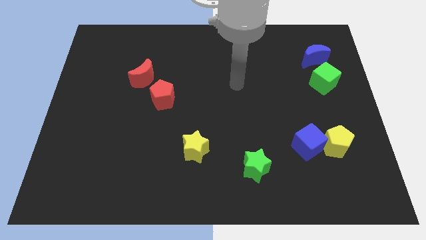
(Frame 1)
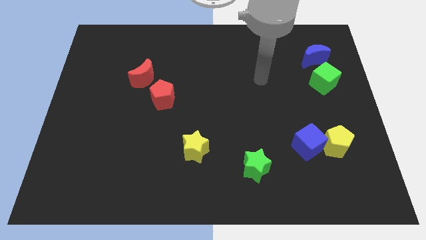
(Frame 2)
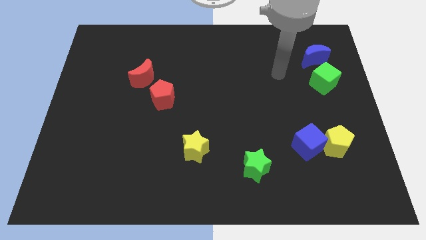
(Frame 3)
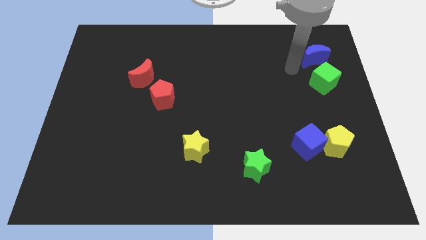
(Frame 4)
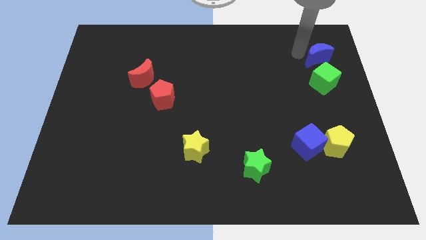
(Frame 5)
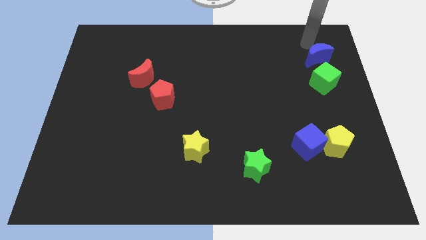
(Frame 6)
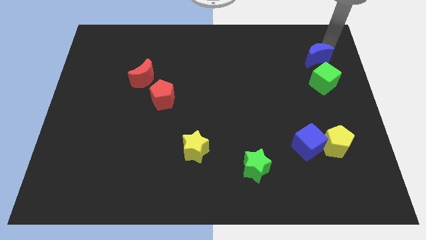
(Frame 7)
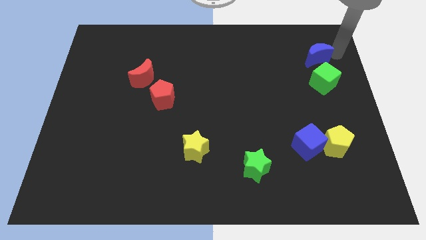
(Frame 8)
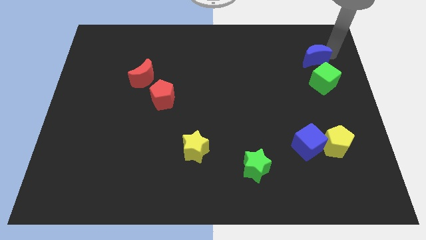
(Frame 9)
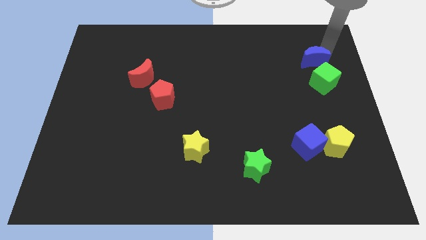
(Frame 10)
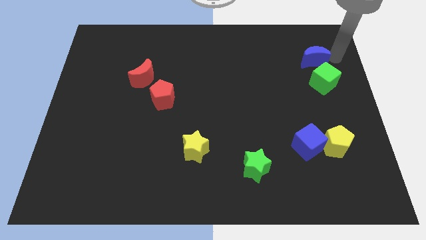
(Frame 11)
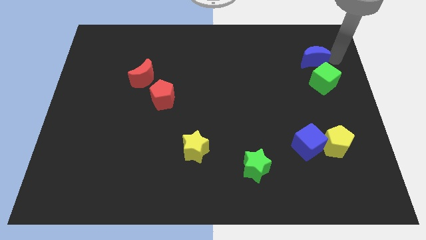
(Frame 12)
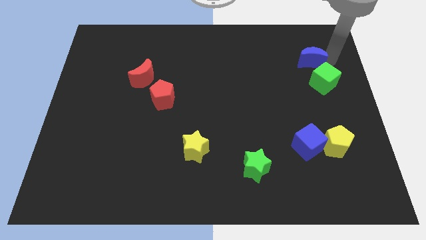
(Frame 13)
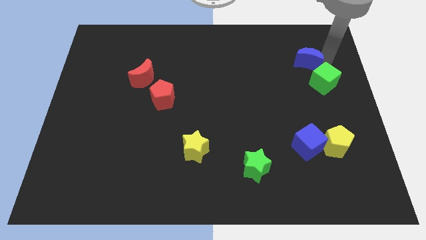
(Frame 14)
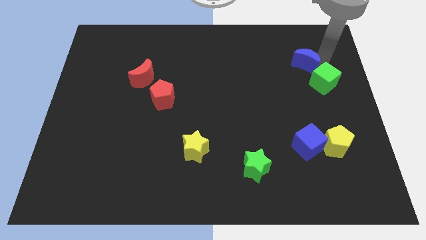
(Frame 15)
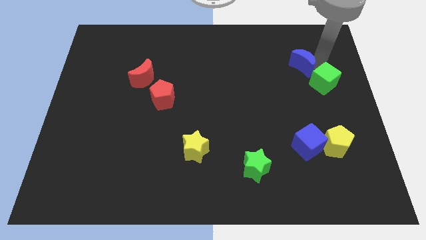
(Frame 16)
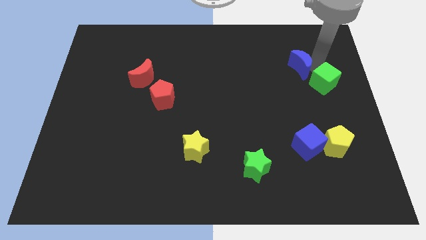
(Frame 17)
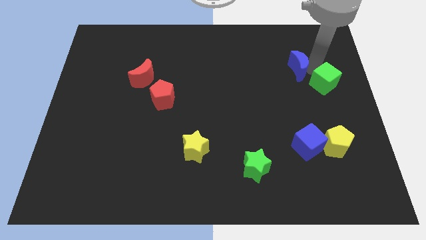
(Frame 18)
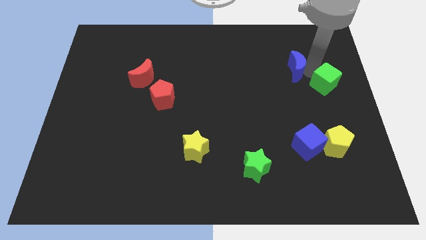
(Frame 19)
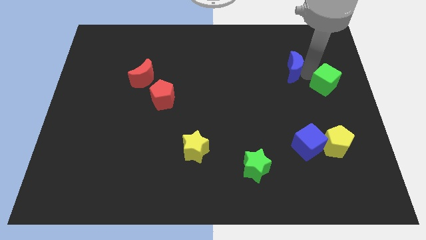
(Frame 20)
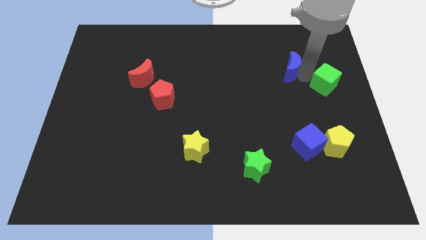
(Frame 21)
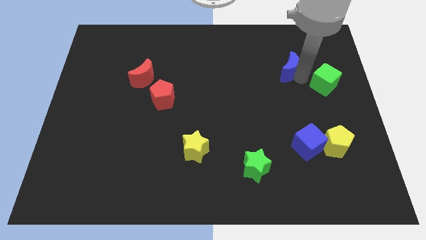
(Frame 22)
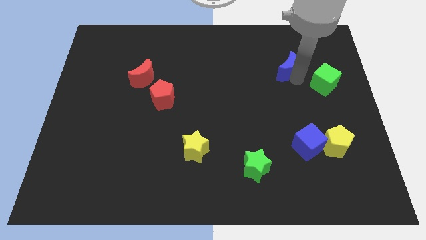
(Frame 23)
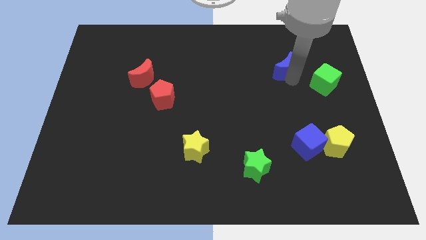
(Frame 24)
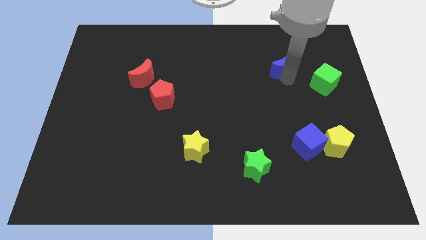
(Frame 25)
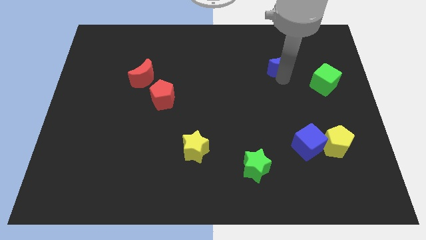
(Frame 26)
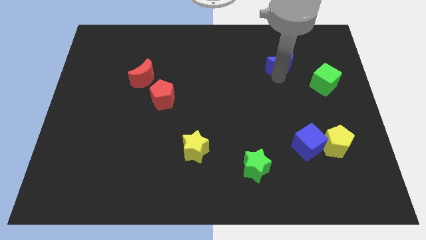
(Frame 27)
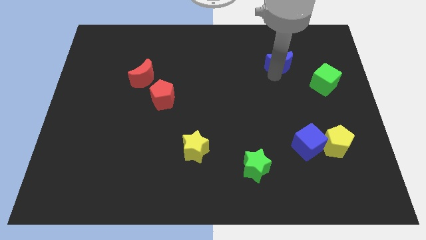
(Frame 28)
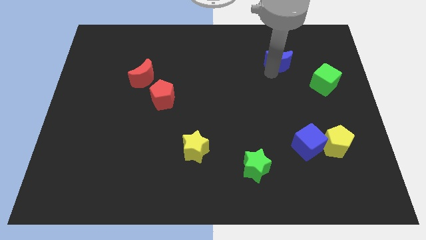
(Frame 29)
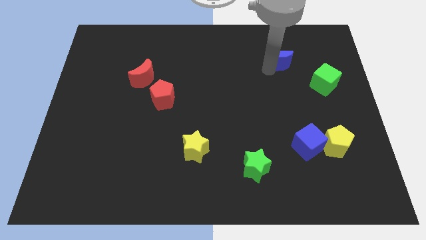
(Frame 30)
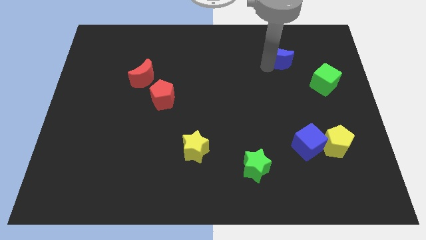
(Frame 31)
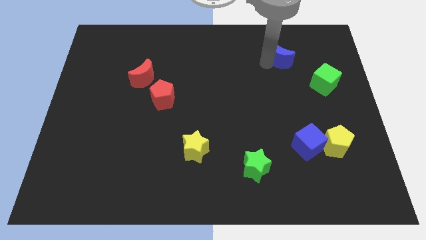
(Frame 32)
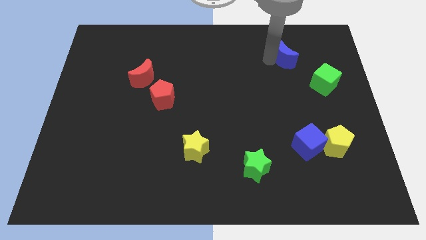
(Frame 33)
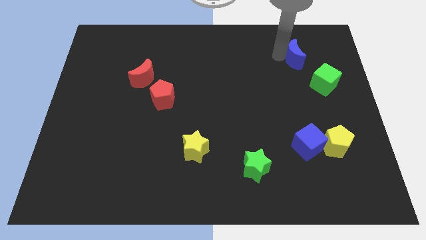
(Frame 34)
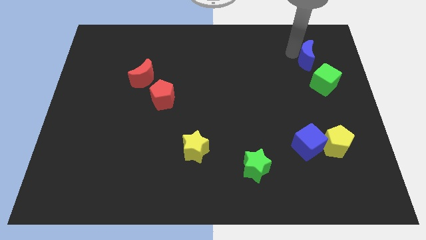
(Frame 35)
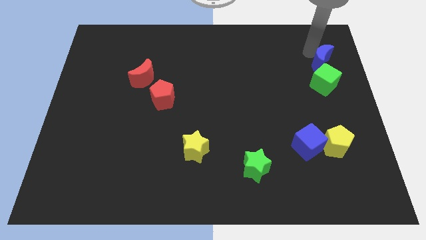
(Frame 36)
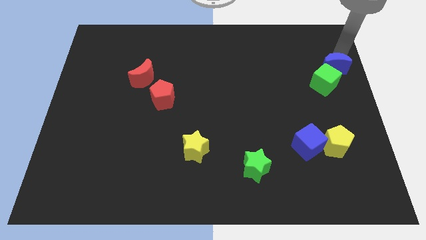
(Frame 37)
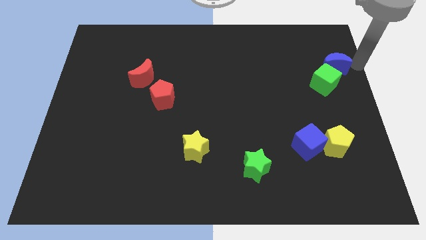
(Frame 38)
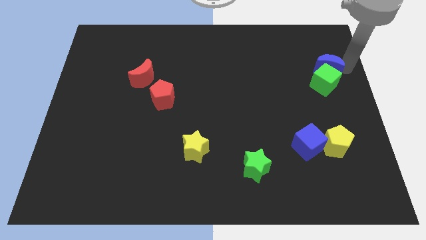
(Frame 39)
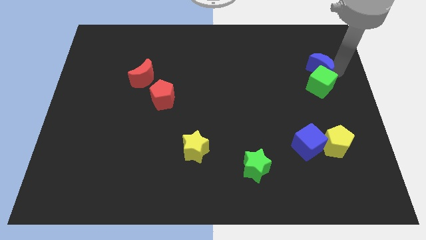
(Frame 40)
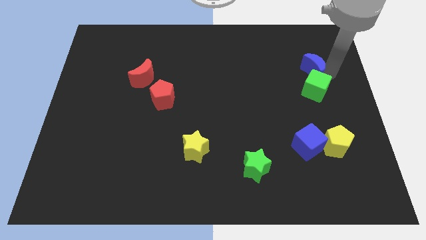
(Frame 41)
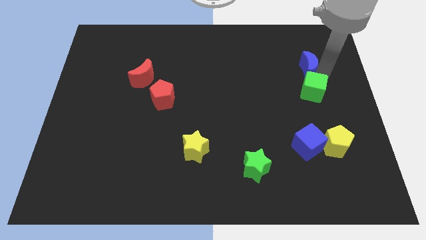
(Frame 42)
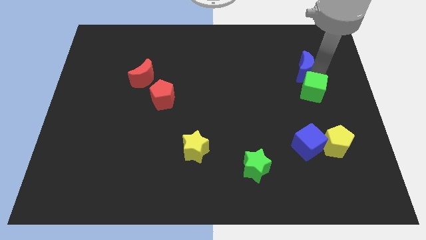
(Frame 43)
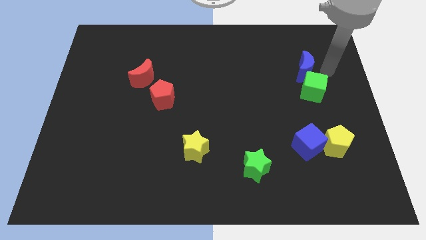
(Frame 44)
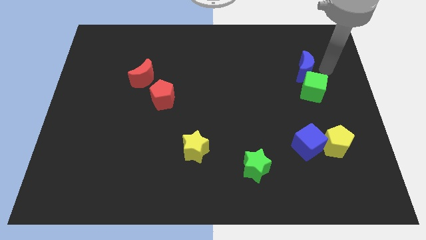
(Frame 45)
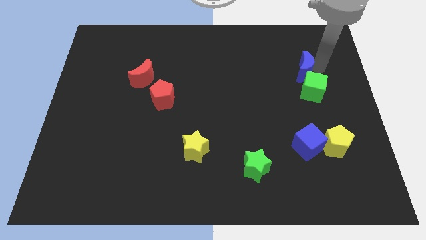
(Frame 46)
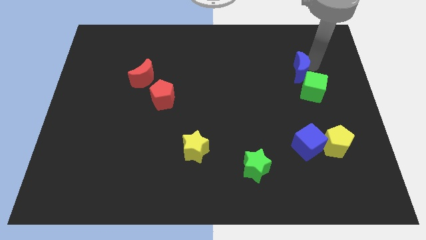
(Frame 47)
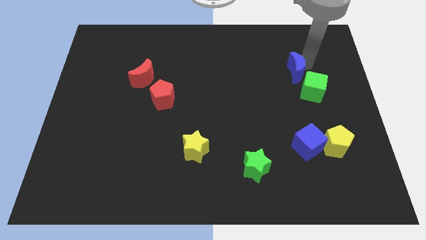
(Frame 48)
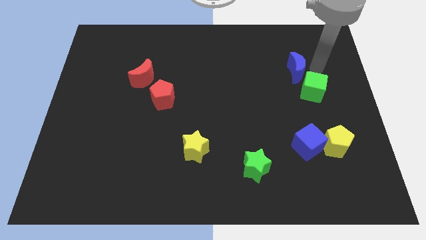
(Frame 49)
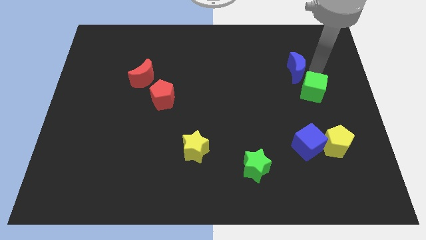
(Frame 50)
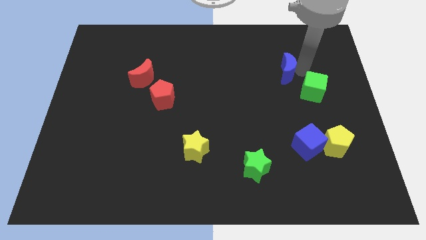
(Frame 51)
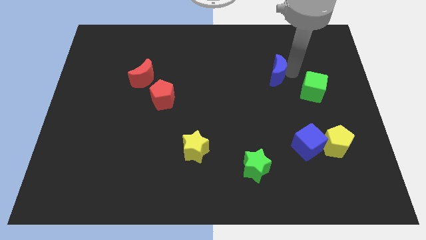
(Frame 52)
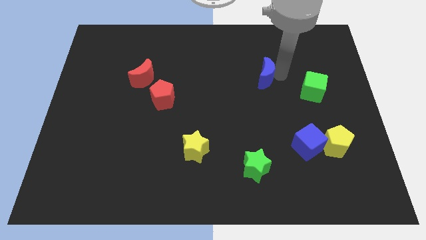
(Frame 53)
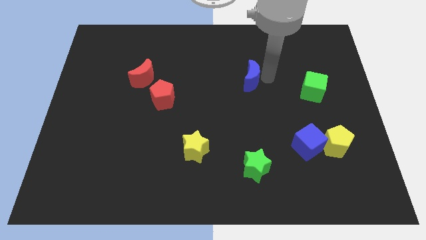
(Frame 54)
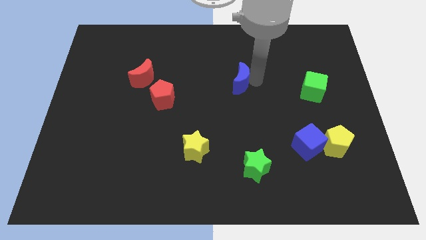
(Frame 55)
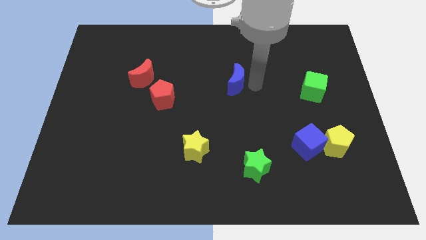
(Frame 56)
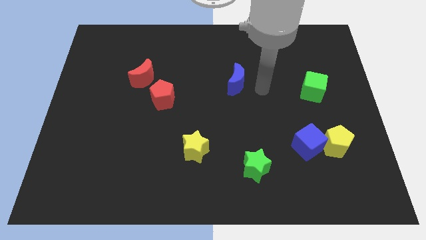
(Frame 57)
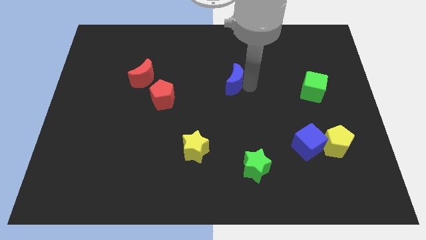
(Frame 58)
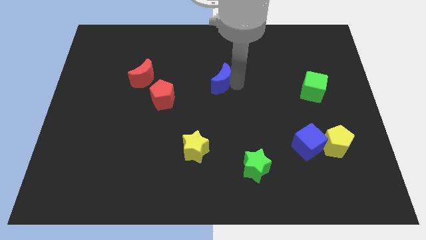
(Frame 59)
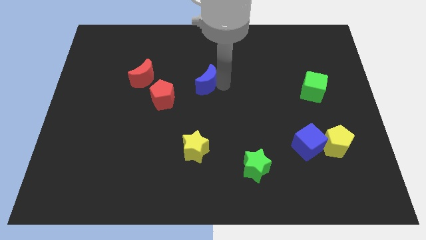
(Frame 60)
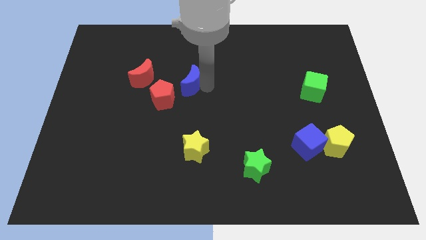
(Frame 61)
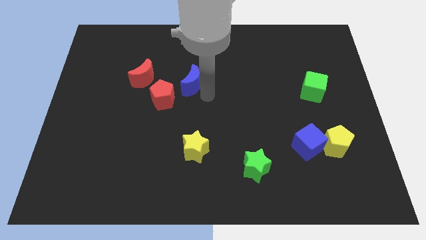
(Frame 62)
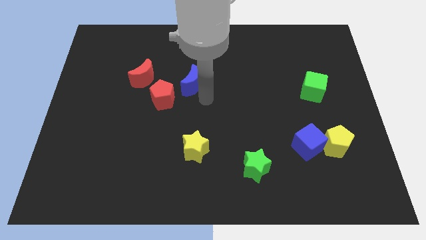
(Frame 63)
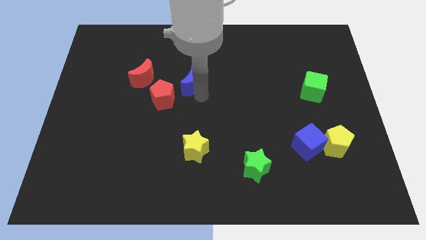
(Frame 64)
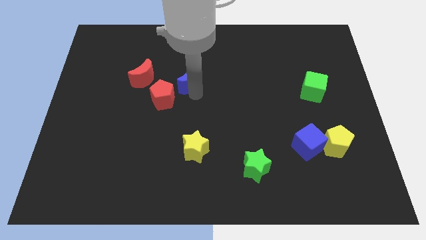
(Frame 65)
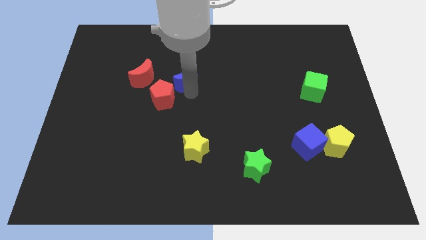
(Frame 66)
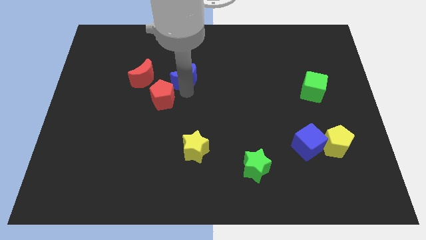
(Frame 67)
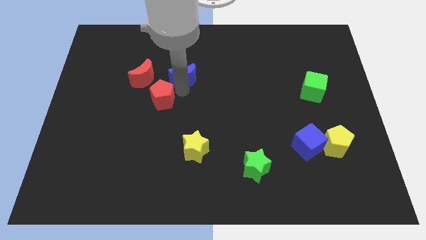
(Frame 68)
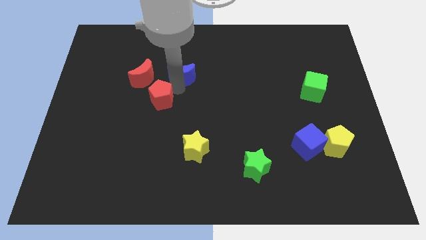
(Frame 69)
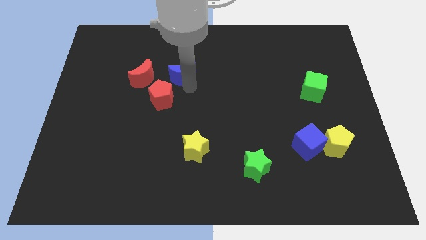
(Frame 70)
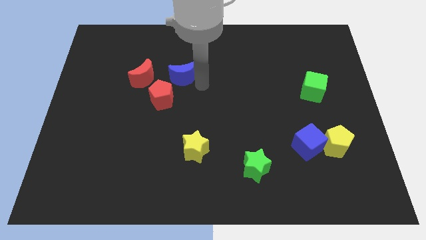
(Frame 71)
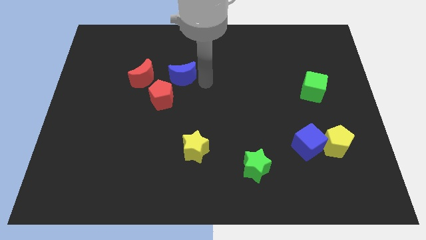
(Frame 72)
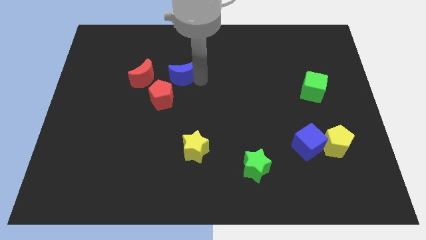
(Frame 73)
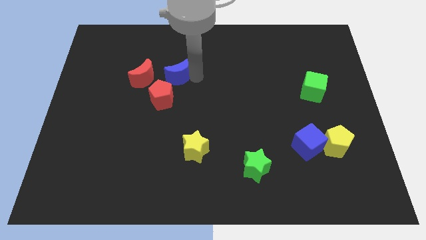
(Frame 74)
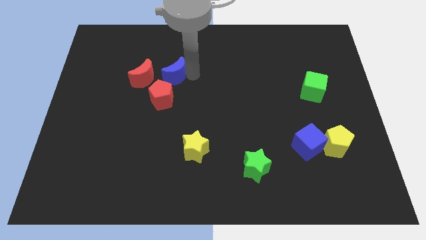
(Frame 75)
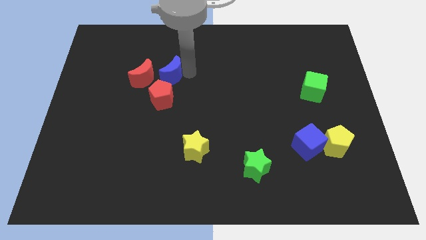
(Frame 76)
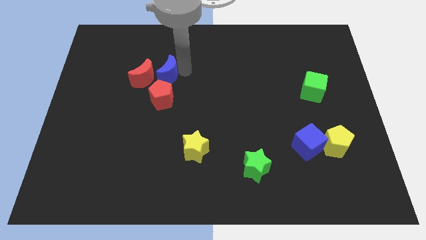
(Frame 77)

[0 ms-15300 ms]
slide the blue moon next to the red moon

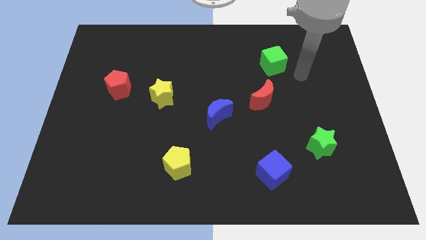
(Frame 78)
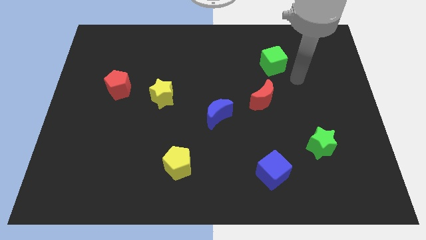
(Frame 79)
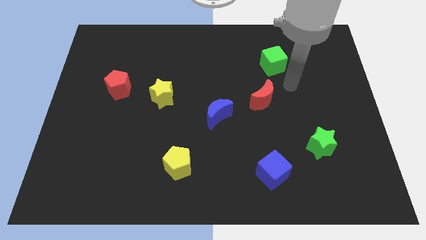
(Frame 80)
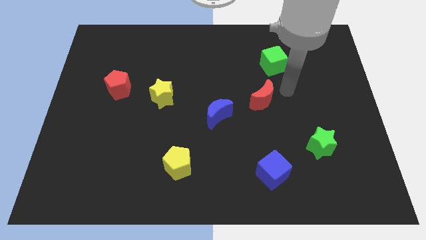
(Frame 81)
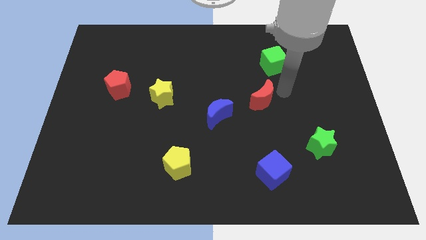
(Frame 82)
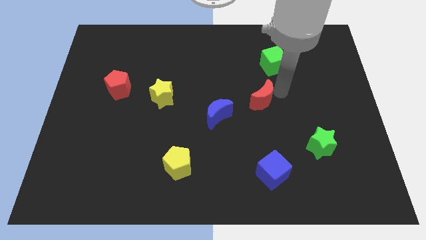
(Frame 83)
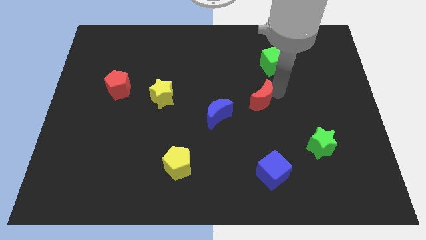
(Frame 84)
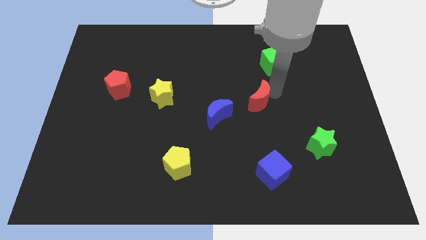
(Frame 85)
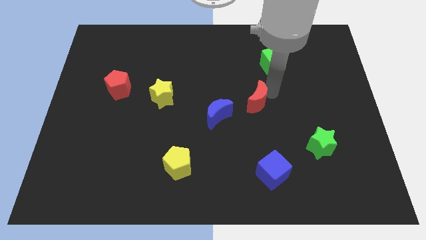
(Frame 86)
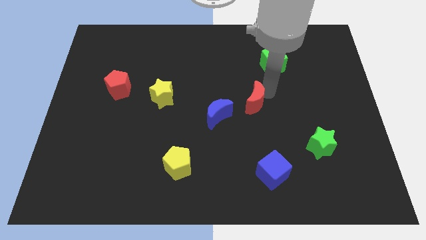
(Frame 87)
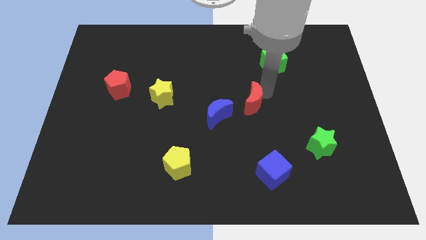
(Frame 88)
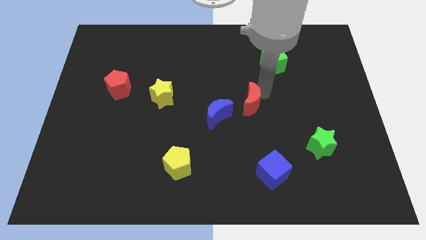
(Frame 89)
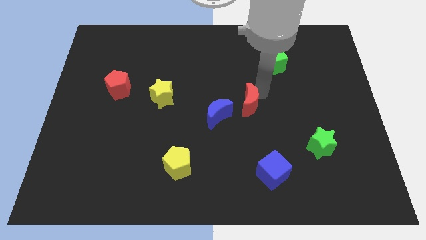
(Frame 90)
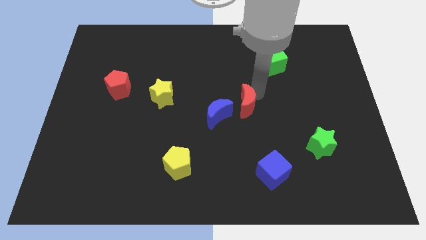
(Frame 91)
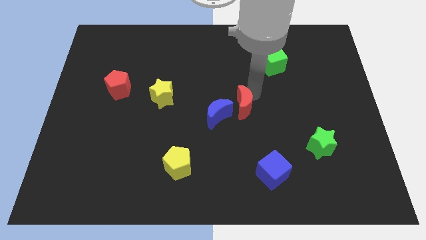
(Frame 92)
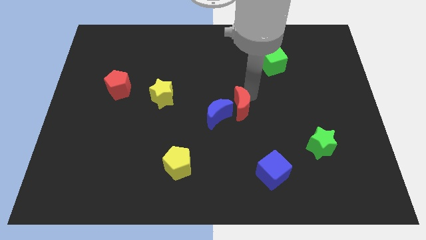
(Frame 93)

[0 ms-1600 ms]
slide the red moon next to the blue moon
